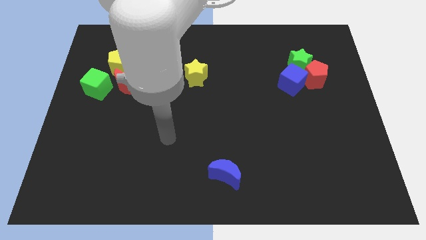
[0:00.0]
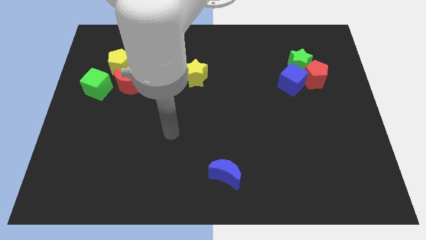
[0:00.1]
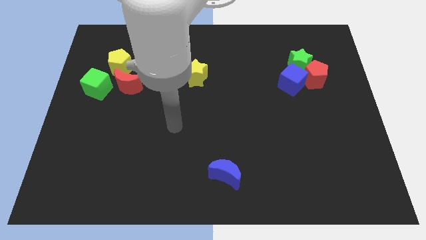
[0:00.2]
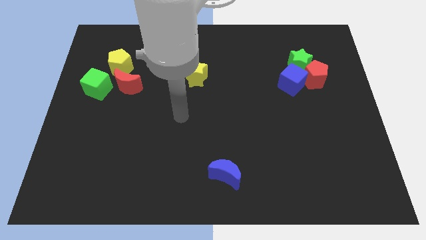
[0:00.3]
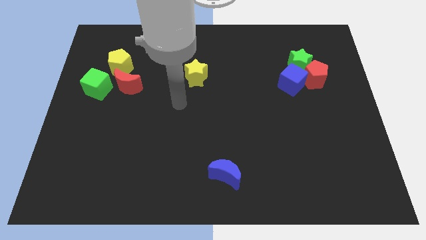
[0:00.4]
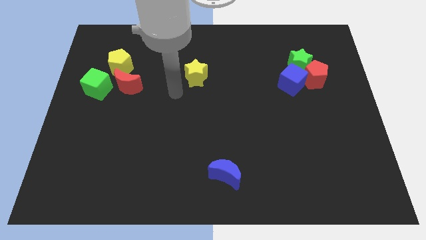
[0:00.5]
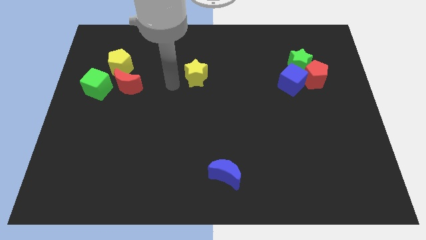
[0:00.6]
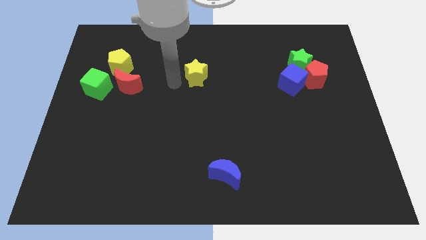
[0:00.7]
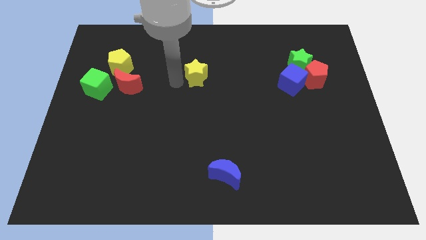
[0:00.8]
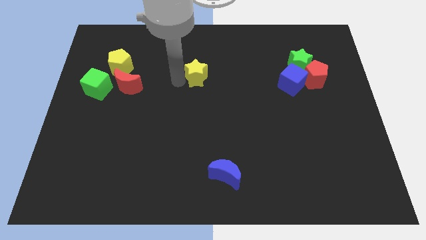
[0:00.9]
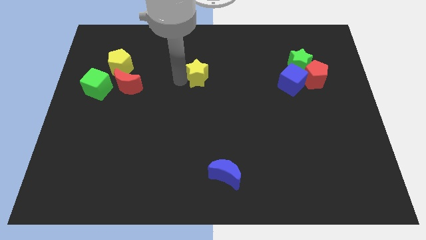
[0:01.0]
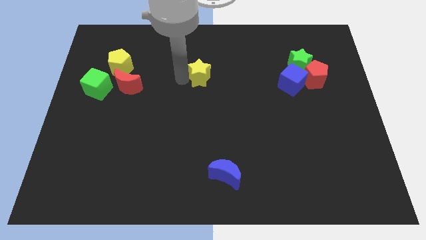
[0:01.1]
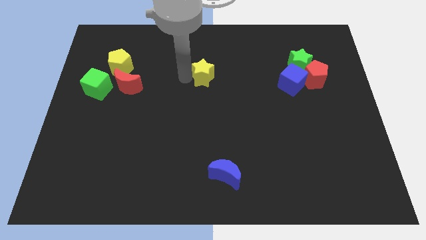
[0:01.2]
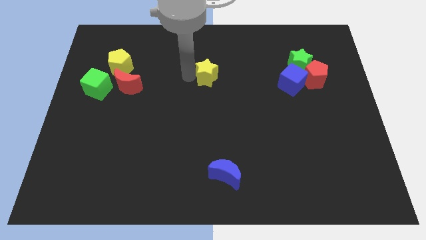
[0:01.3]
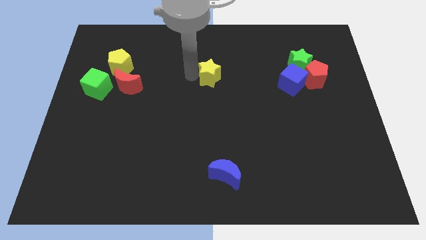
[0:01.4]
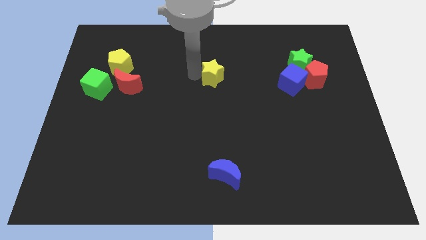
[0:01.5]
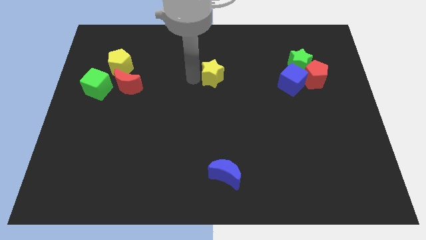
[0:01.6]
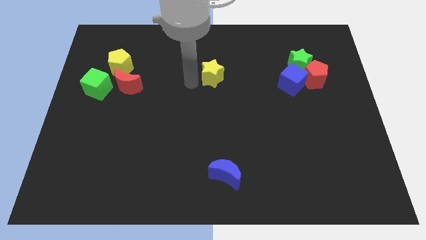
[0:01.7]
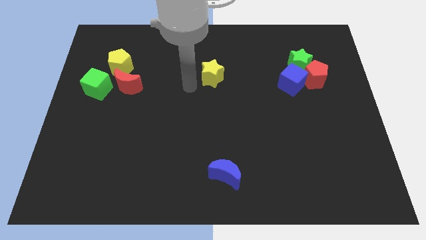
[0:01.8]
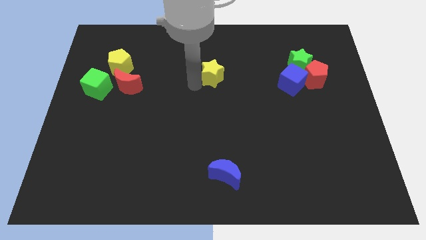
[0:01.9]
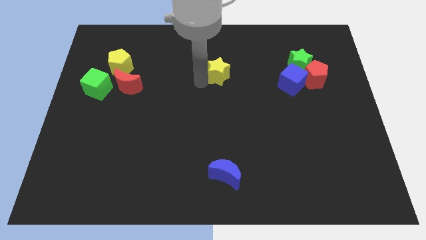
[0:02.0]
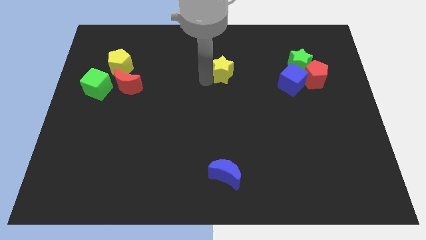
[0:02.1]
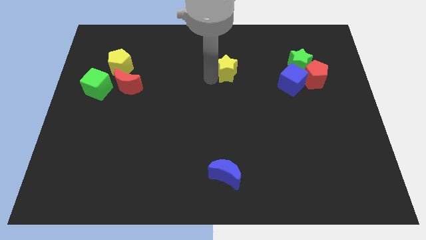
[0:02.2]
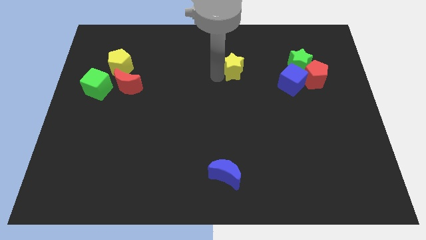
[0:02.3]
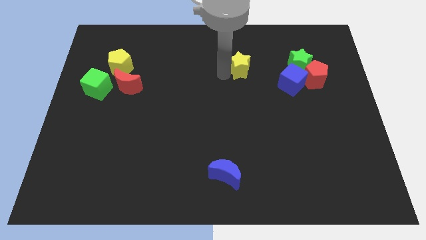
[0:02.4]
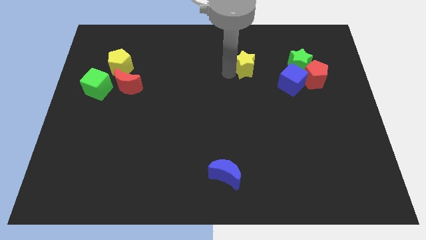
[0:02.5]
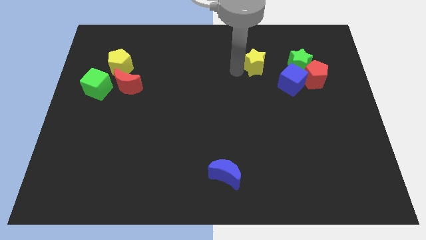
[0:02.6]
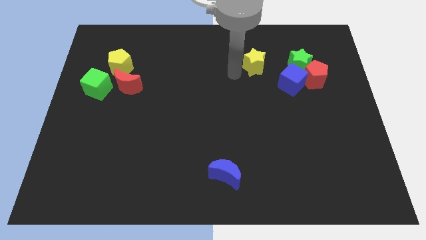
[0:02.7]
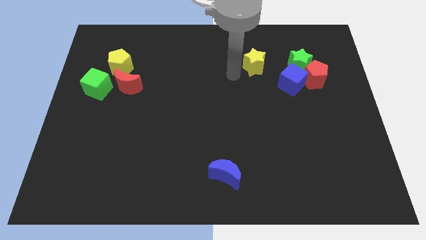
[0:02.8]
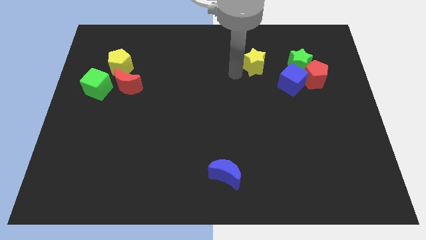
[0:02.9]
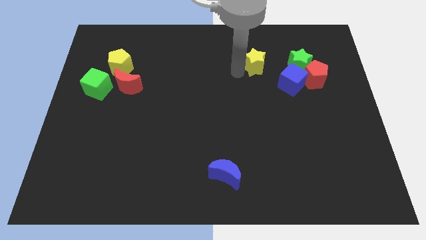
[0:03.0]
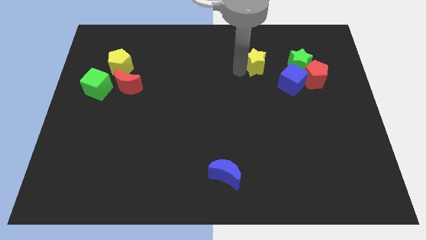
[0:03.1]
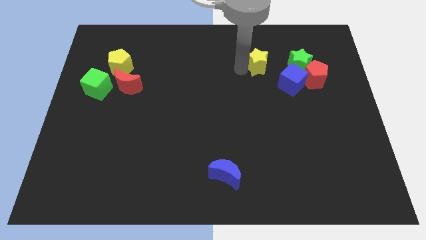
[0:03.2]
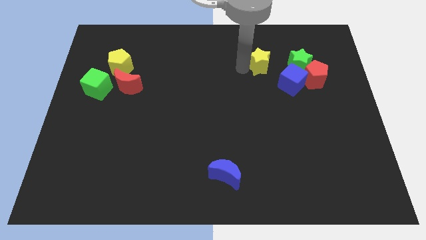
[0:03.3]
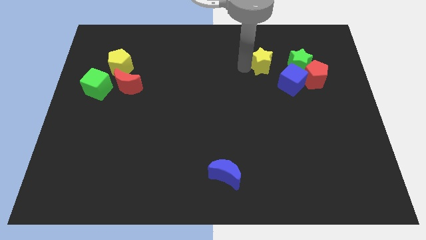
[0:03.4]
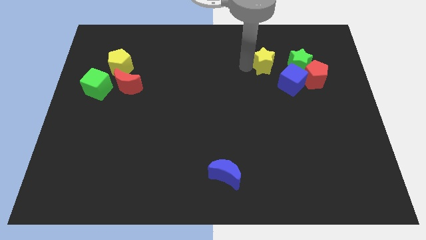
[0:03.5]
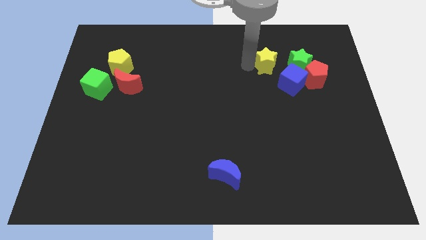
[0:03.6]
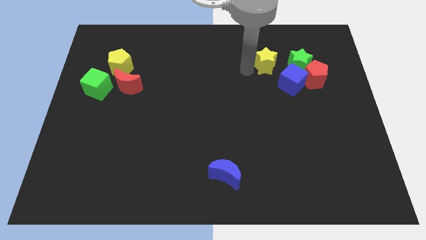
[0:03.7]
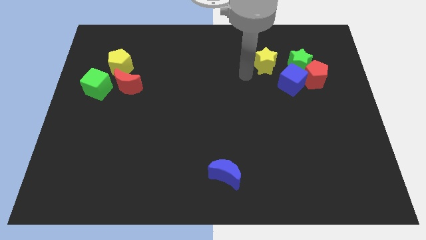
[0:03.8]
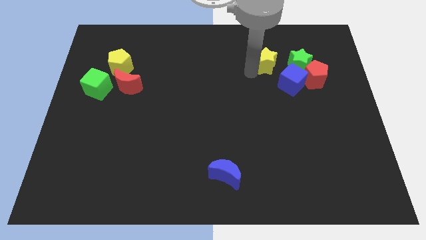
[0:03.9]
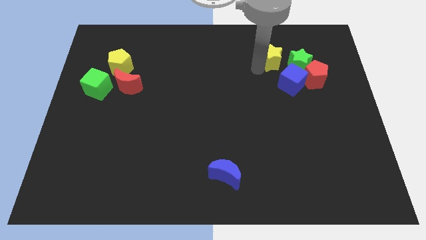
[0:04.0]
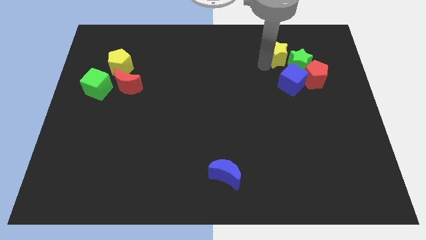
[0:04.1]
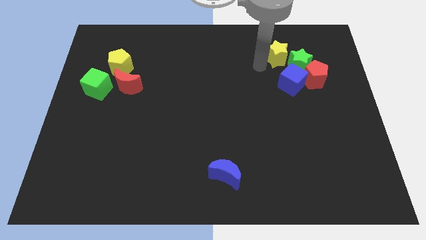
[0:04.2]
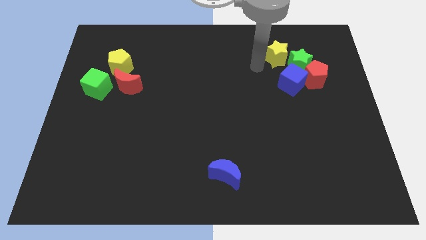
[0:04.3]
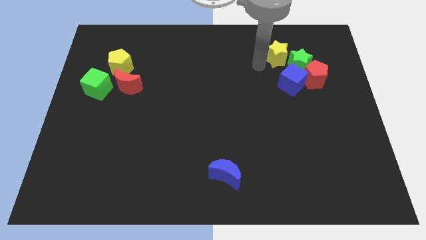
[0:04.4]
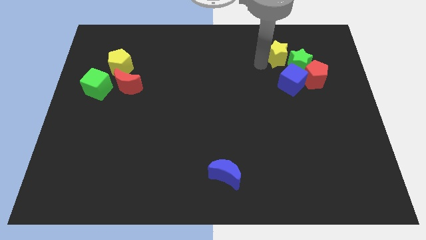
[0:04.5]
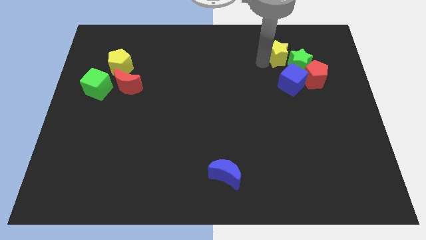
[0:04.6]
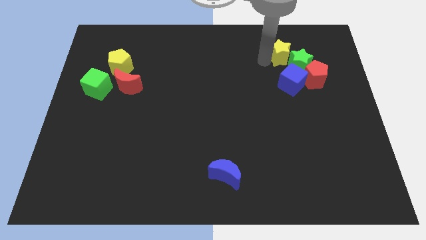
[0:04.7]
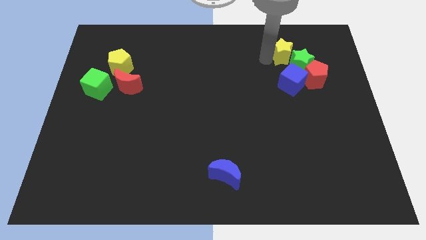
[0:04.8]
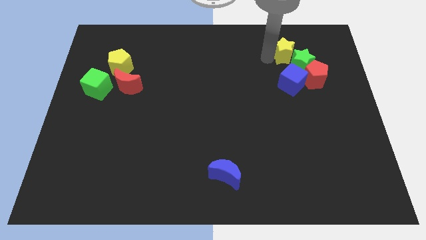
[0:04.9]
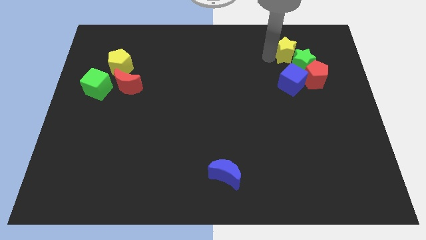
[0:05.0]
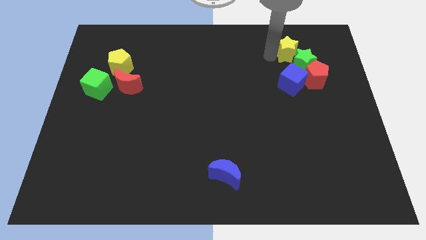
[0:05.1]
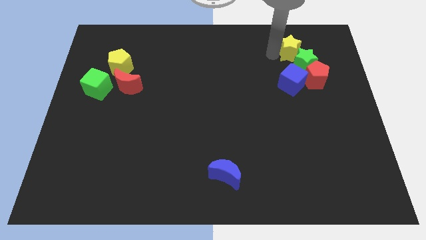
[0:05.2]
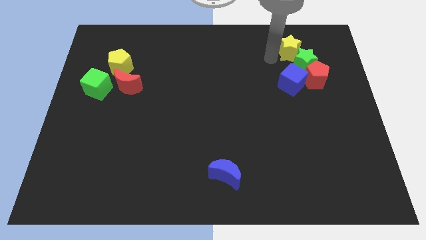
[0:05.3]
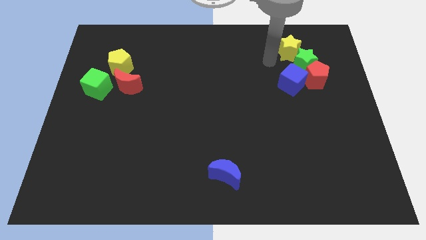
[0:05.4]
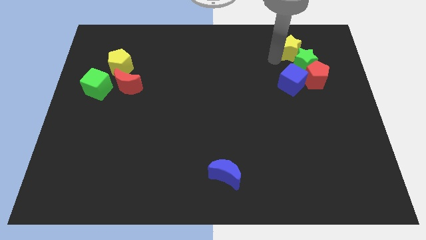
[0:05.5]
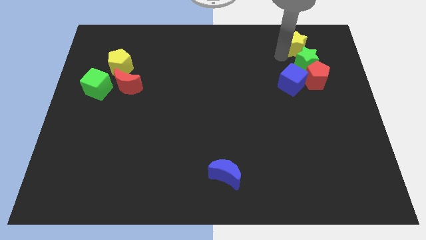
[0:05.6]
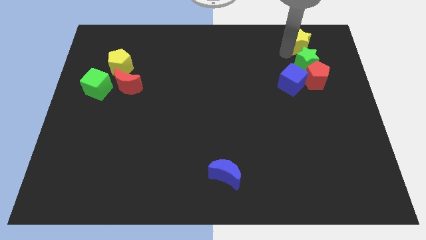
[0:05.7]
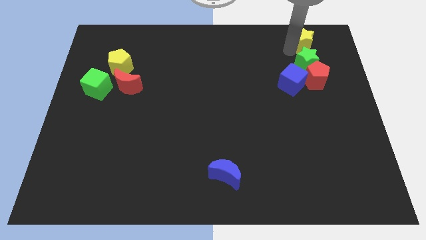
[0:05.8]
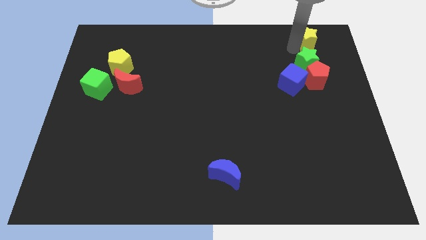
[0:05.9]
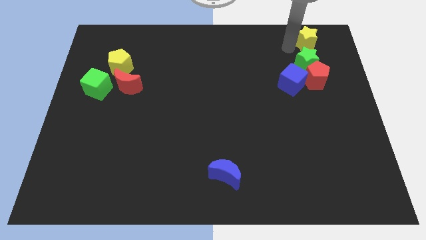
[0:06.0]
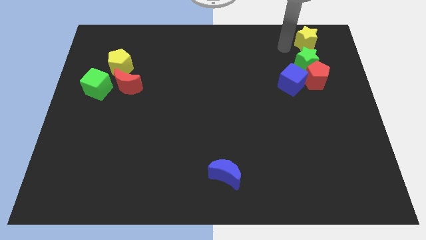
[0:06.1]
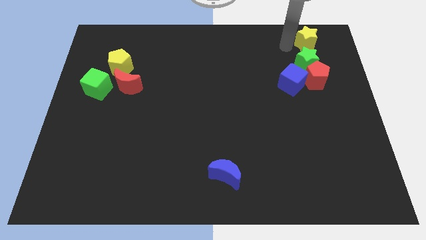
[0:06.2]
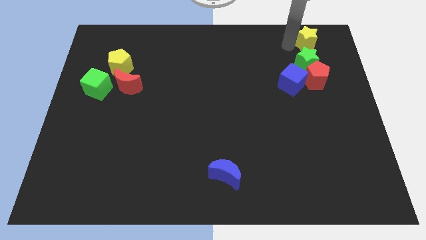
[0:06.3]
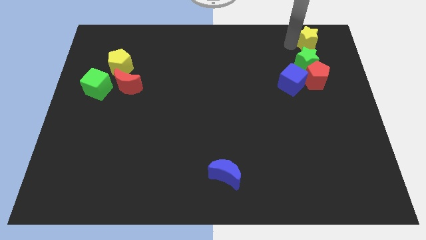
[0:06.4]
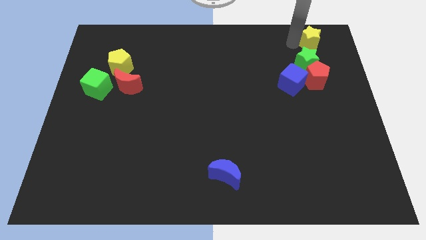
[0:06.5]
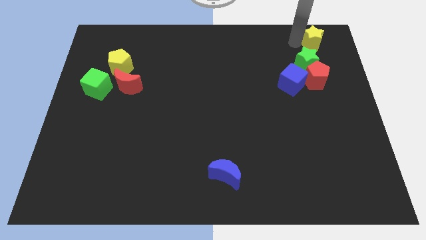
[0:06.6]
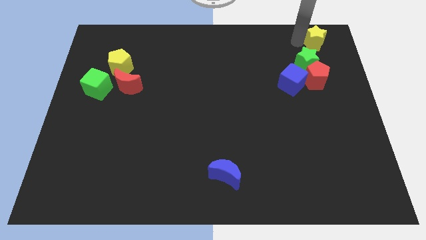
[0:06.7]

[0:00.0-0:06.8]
push the yellow star to the top right of the board
